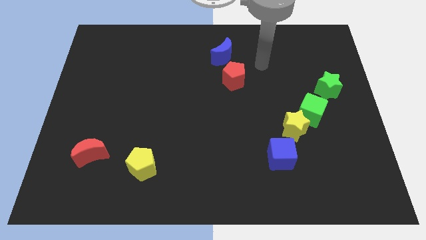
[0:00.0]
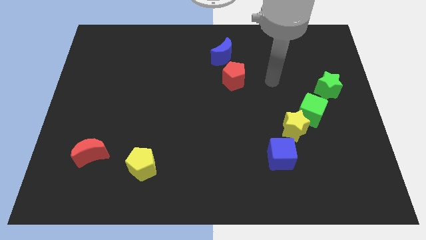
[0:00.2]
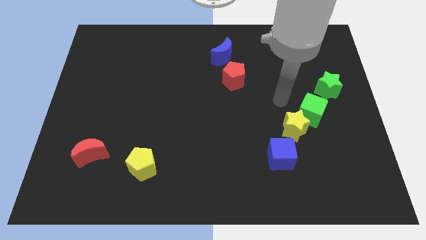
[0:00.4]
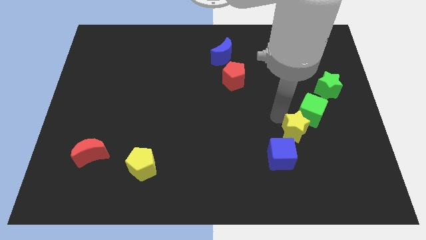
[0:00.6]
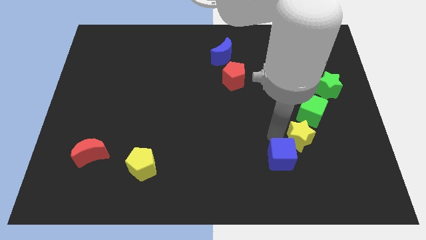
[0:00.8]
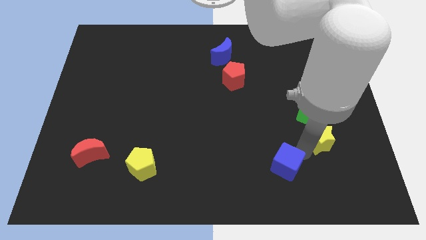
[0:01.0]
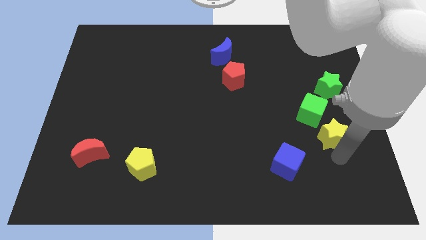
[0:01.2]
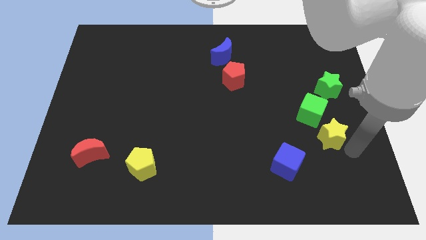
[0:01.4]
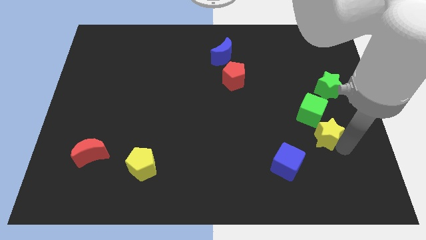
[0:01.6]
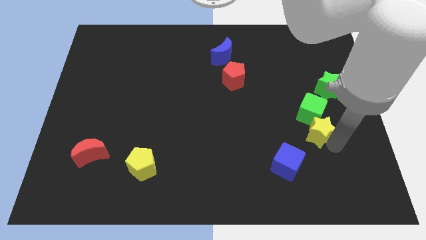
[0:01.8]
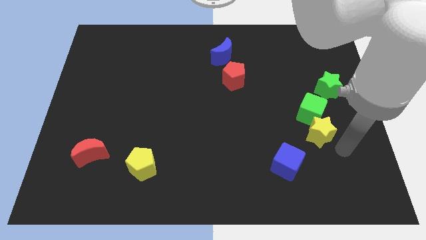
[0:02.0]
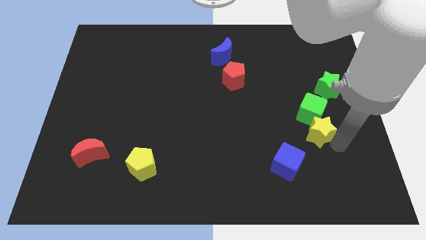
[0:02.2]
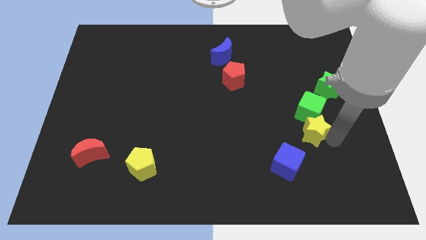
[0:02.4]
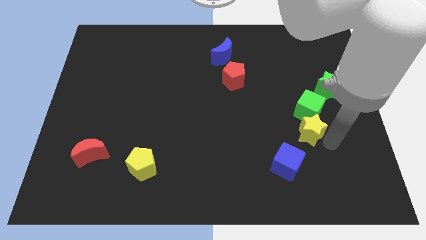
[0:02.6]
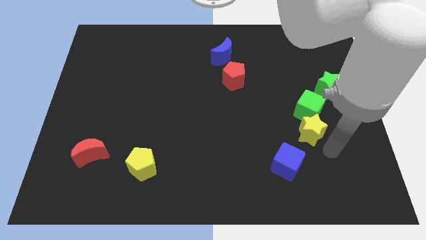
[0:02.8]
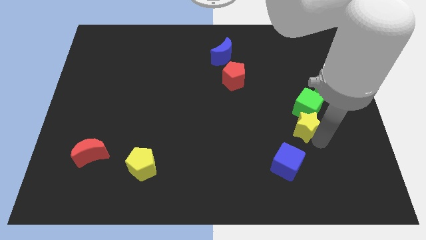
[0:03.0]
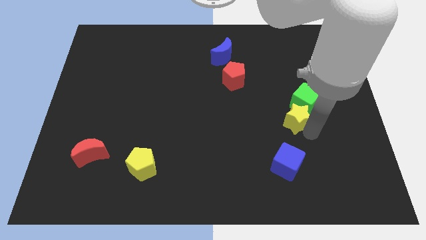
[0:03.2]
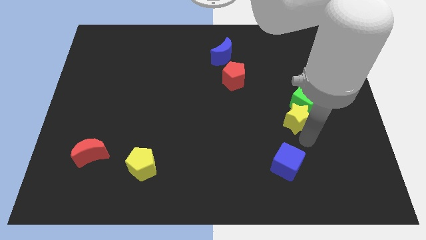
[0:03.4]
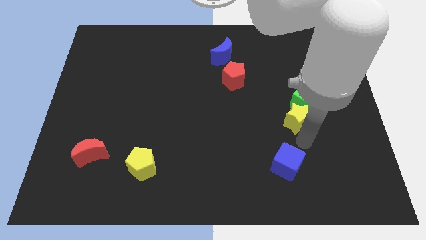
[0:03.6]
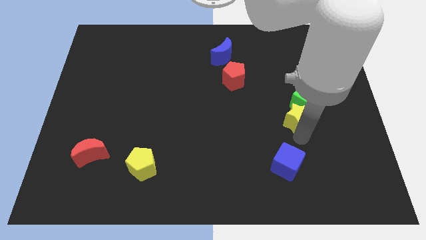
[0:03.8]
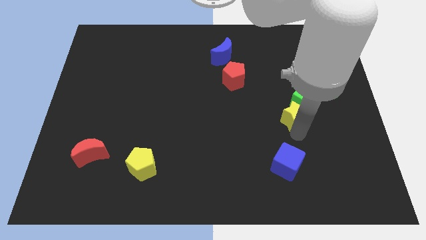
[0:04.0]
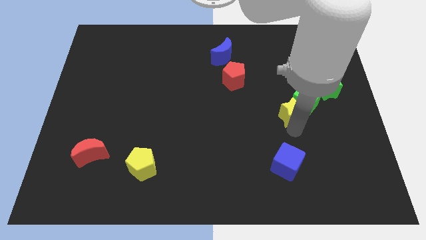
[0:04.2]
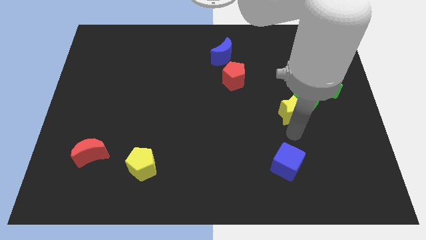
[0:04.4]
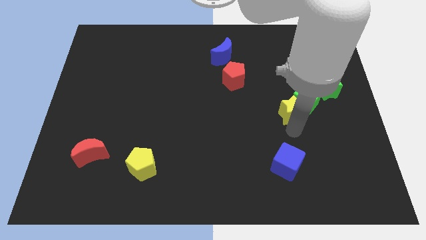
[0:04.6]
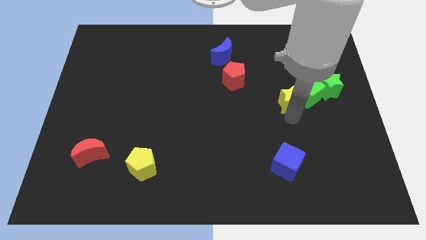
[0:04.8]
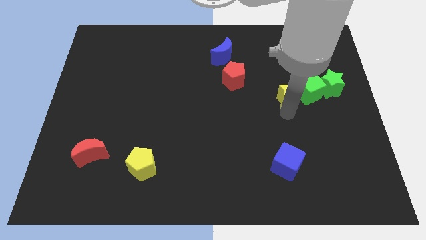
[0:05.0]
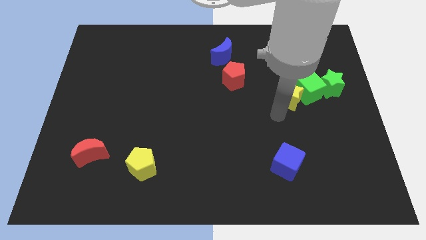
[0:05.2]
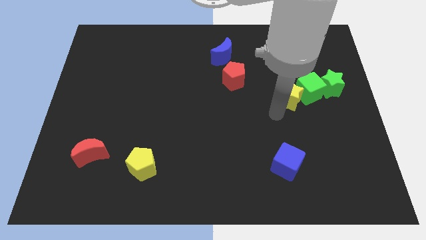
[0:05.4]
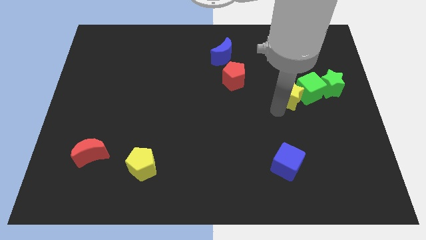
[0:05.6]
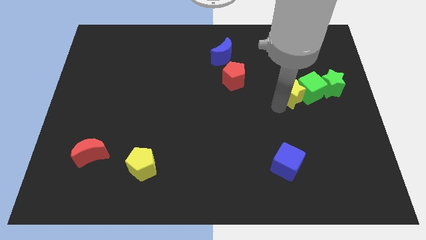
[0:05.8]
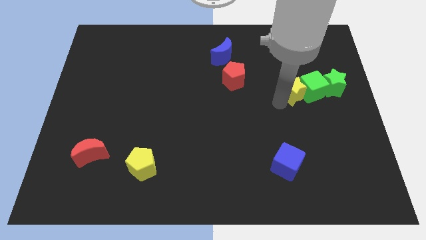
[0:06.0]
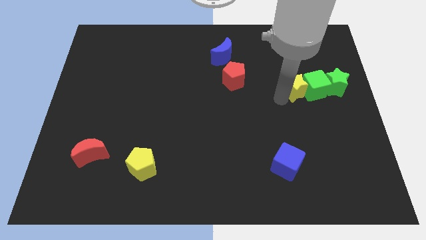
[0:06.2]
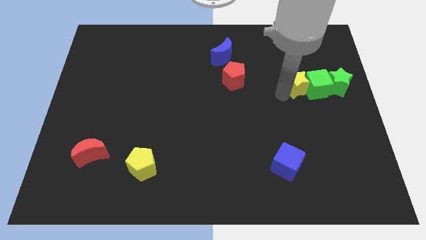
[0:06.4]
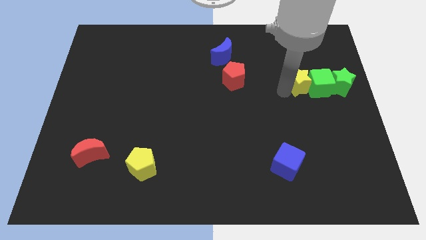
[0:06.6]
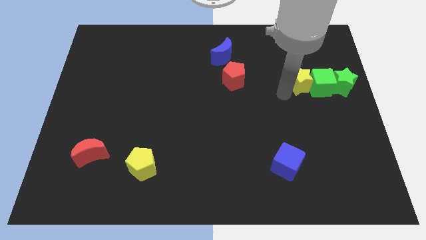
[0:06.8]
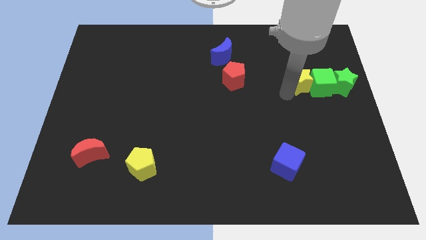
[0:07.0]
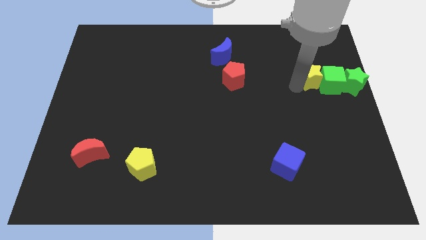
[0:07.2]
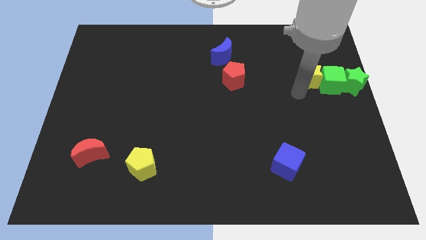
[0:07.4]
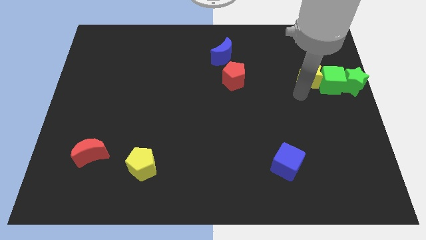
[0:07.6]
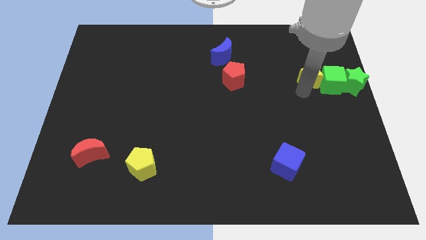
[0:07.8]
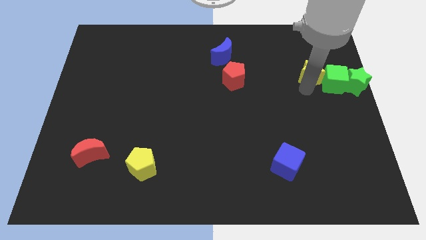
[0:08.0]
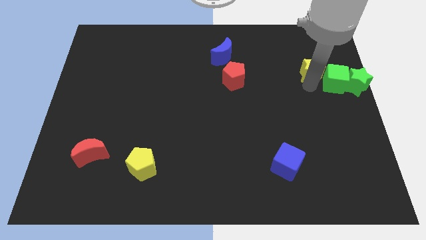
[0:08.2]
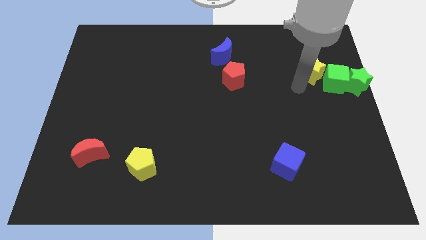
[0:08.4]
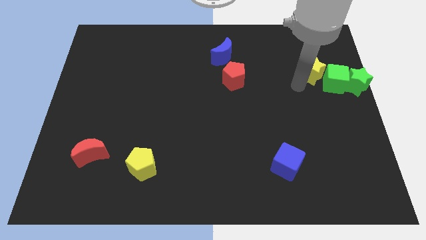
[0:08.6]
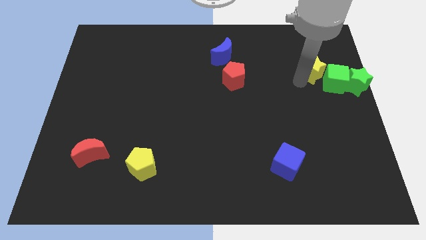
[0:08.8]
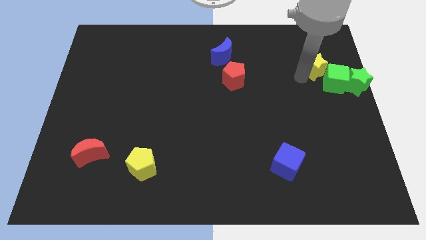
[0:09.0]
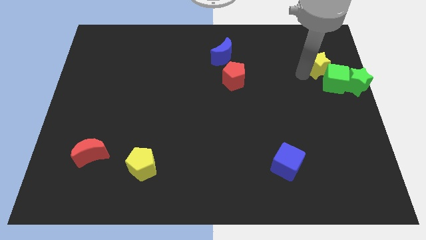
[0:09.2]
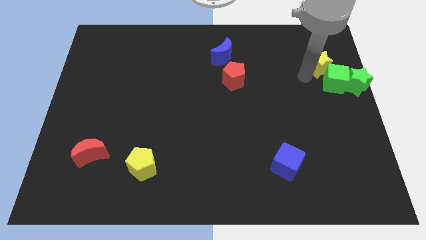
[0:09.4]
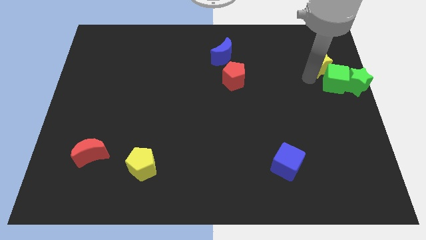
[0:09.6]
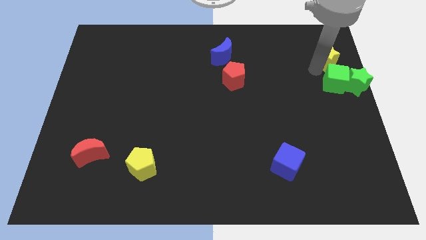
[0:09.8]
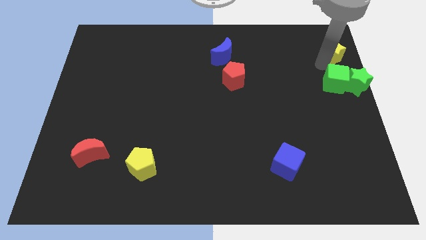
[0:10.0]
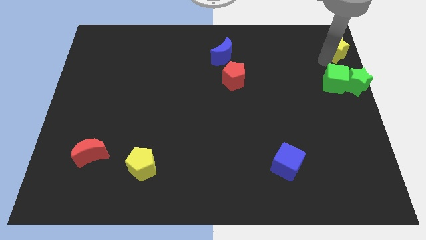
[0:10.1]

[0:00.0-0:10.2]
put the yellow star to the top right corner

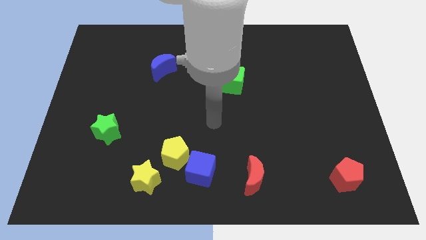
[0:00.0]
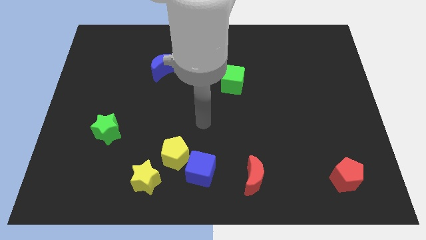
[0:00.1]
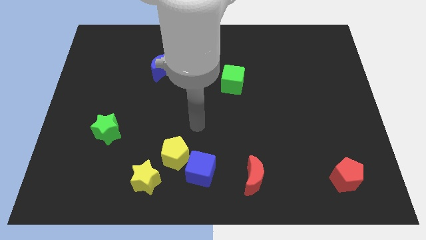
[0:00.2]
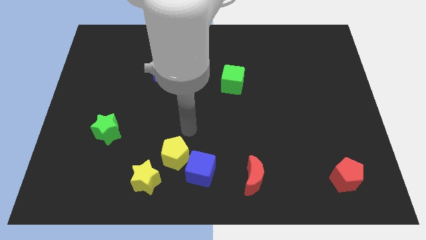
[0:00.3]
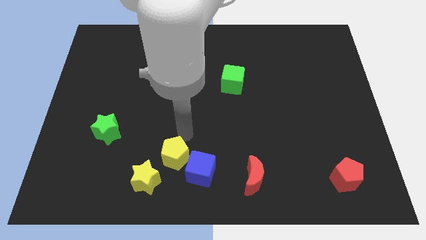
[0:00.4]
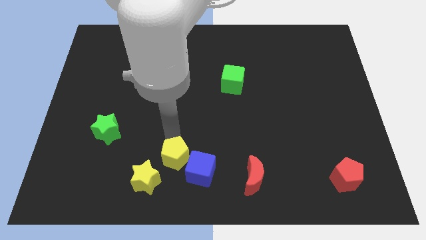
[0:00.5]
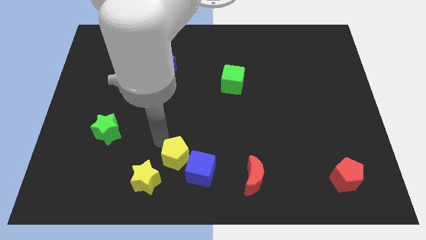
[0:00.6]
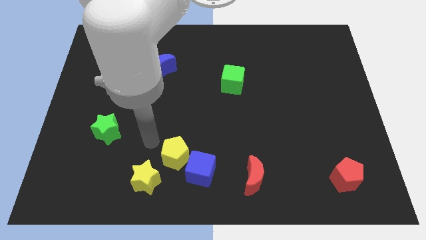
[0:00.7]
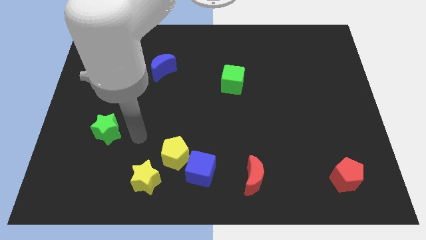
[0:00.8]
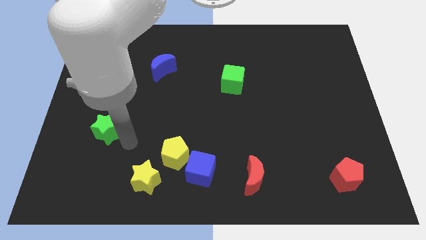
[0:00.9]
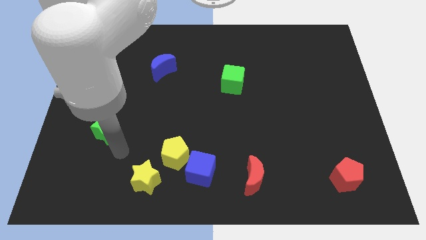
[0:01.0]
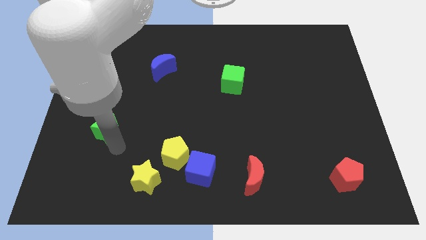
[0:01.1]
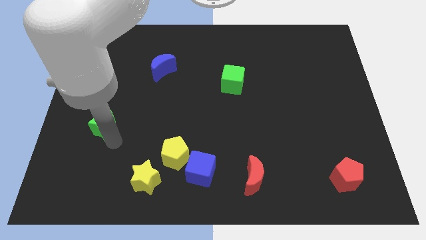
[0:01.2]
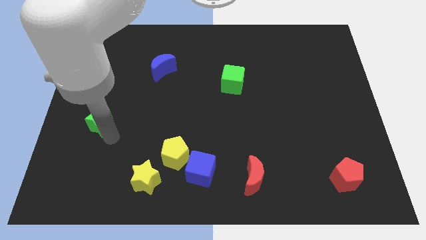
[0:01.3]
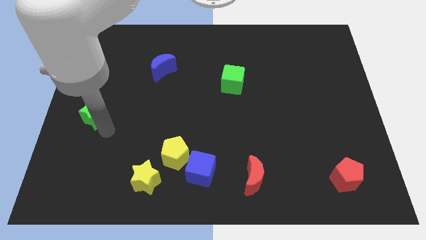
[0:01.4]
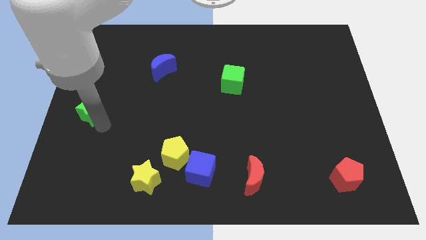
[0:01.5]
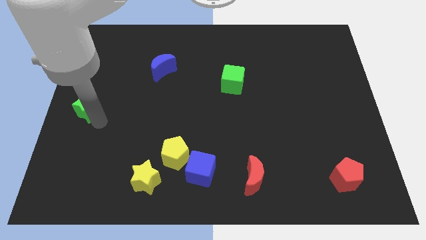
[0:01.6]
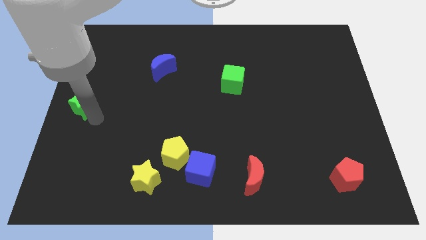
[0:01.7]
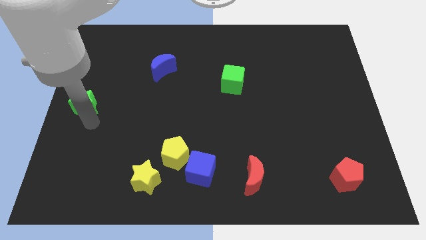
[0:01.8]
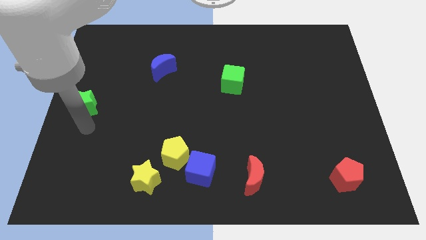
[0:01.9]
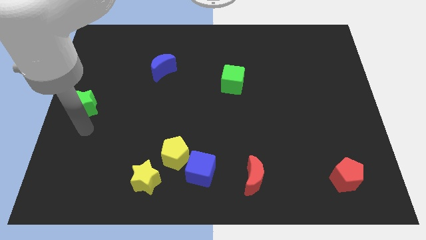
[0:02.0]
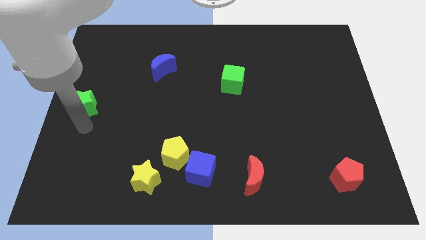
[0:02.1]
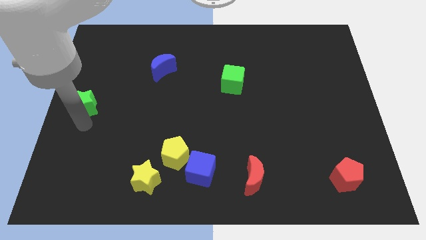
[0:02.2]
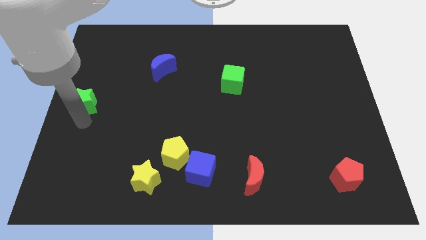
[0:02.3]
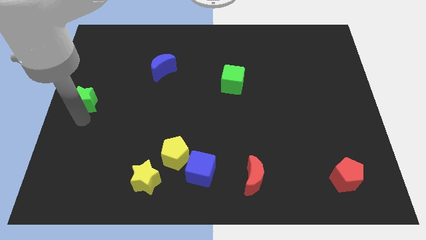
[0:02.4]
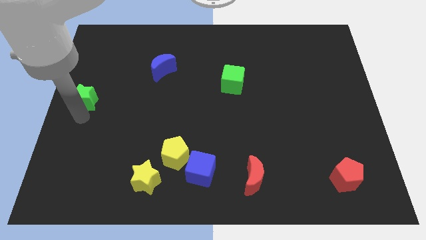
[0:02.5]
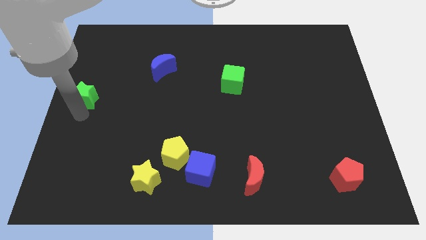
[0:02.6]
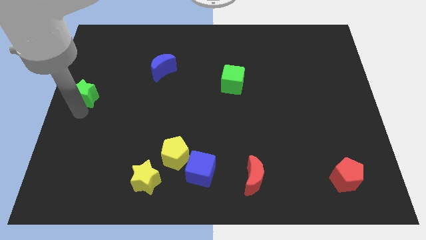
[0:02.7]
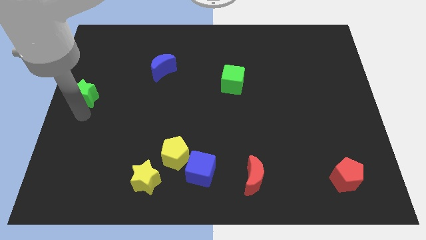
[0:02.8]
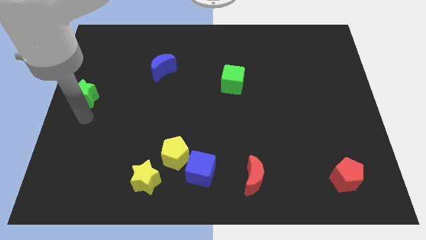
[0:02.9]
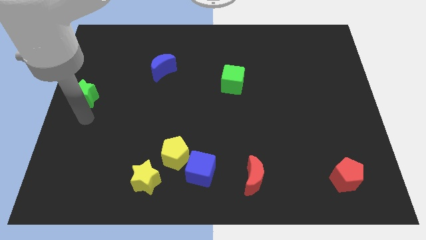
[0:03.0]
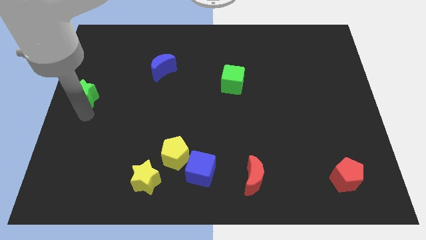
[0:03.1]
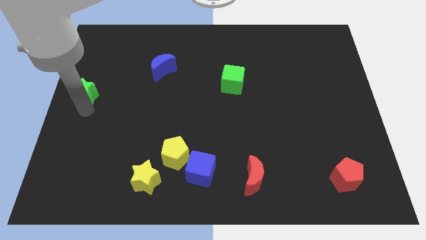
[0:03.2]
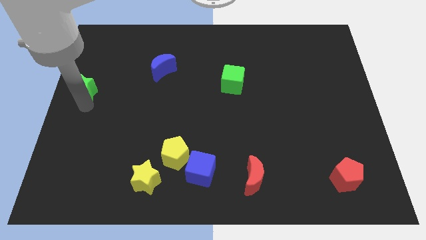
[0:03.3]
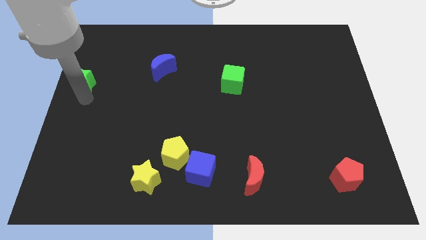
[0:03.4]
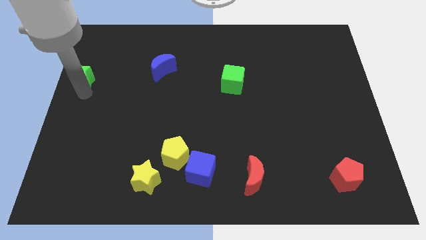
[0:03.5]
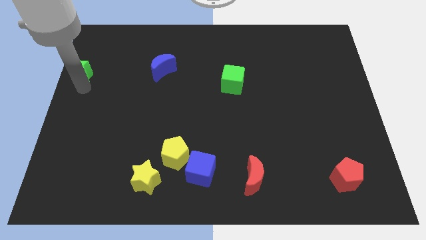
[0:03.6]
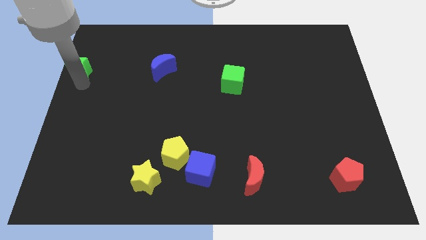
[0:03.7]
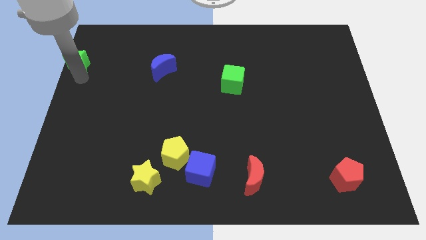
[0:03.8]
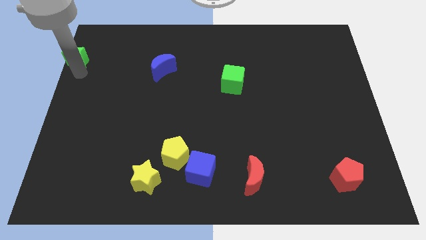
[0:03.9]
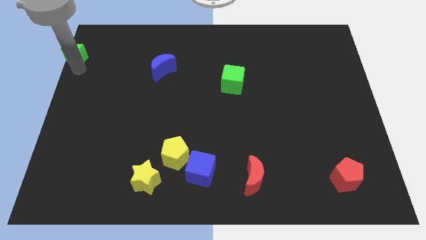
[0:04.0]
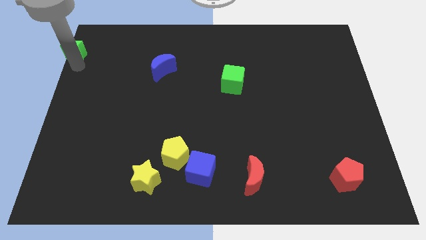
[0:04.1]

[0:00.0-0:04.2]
push the green star to the top left
